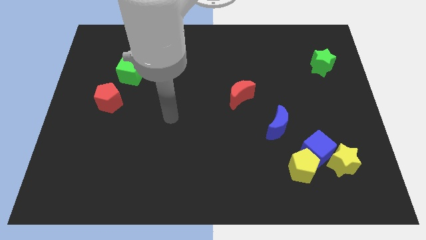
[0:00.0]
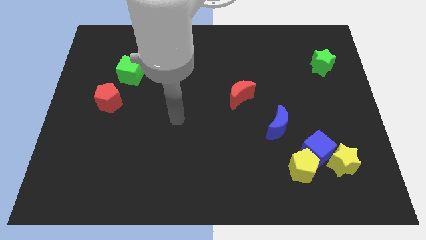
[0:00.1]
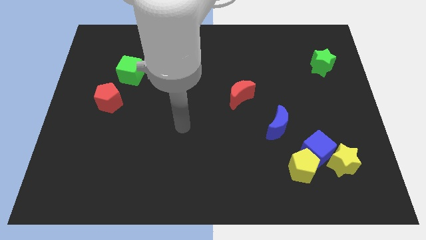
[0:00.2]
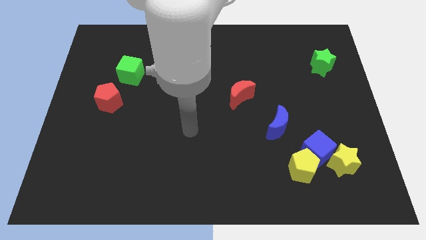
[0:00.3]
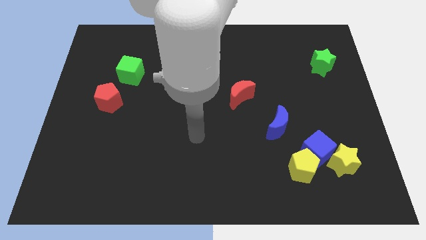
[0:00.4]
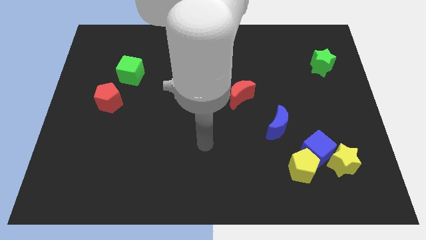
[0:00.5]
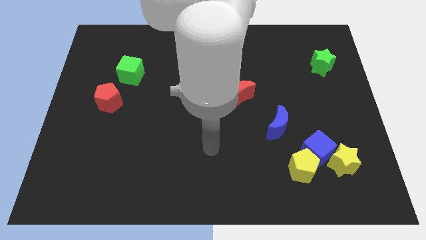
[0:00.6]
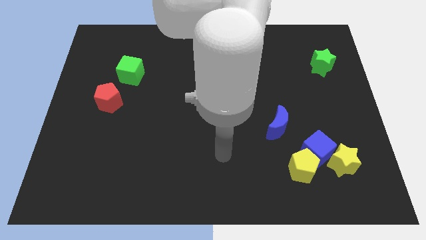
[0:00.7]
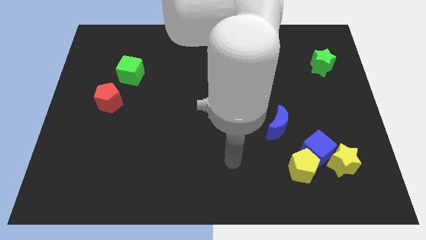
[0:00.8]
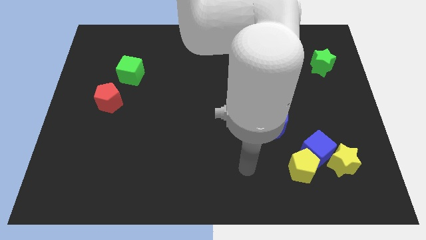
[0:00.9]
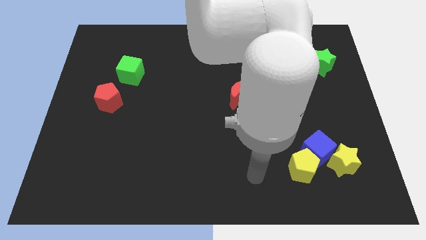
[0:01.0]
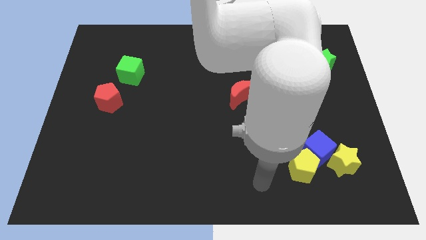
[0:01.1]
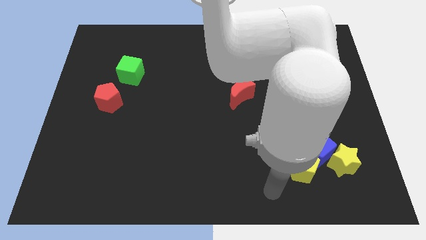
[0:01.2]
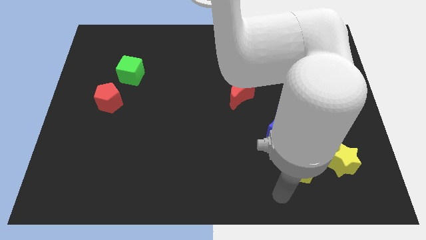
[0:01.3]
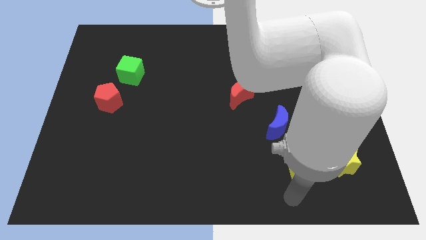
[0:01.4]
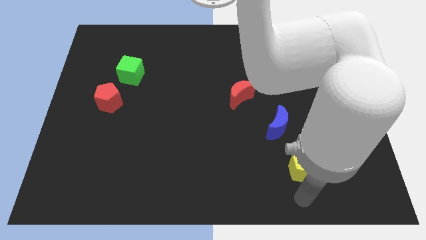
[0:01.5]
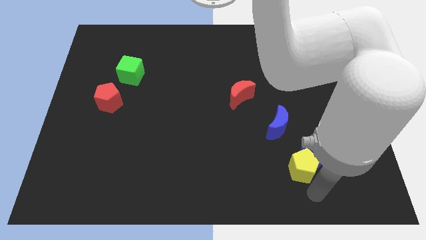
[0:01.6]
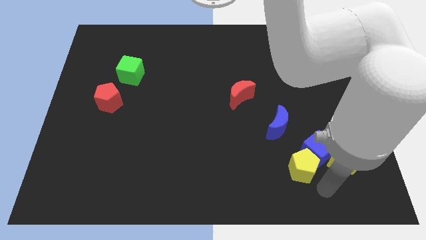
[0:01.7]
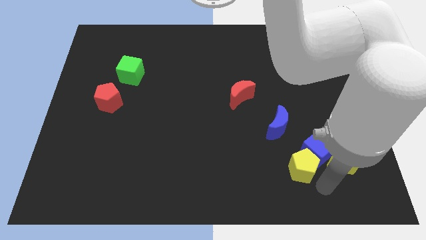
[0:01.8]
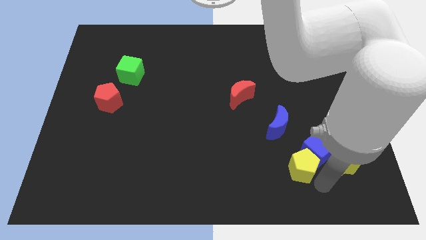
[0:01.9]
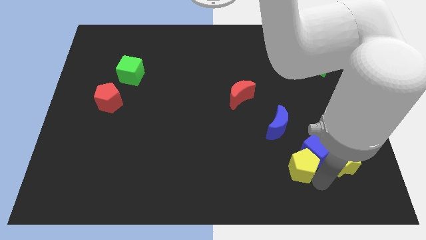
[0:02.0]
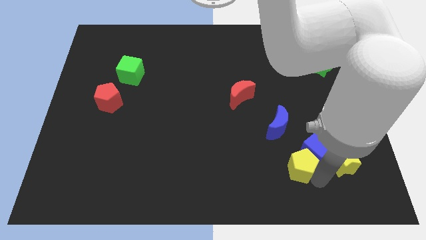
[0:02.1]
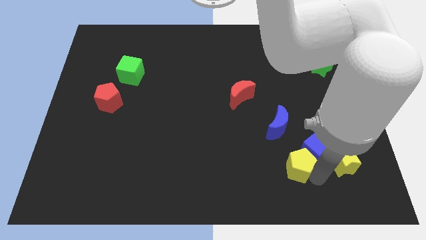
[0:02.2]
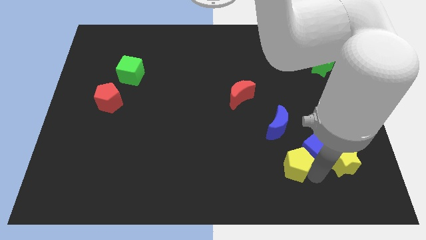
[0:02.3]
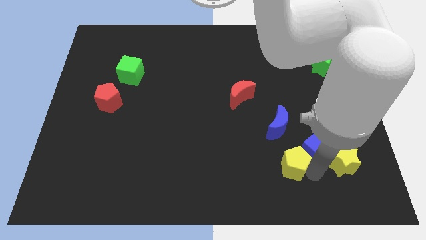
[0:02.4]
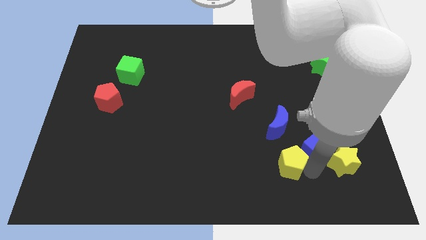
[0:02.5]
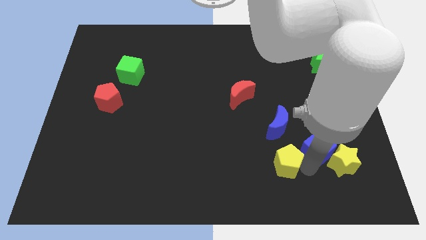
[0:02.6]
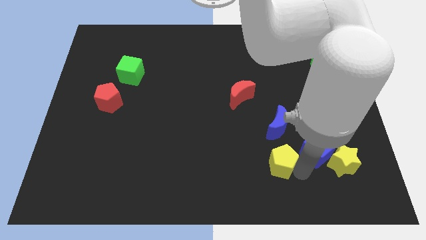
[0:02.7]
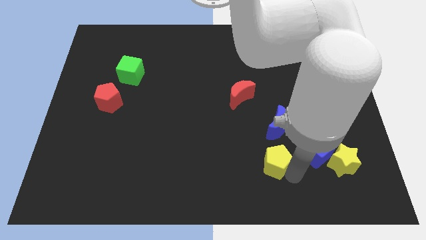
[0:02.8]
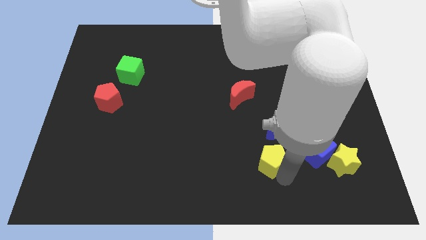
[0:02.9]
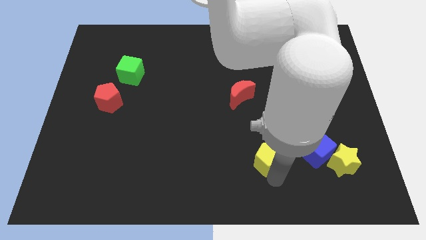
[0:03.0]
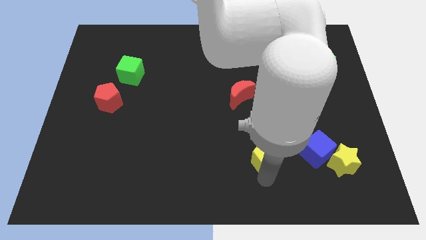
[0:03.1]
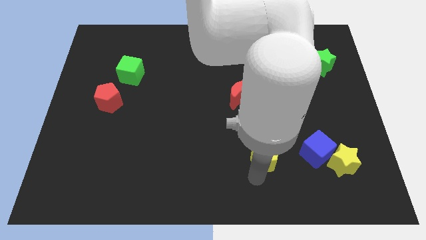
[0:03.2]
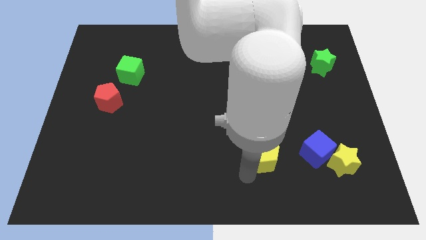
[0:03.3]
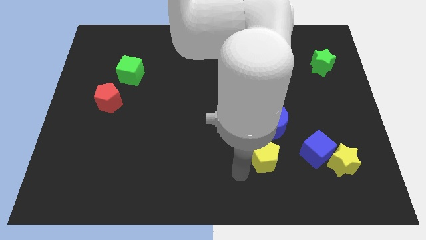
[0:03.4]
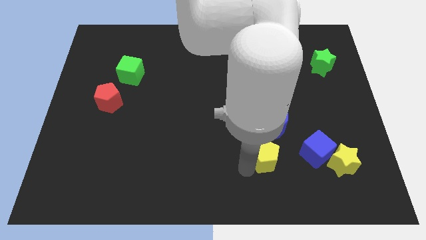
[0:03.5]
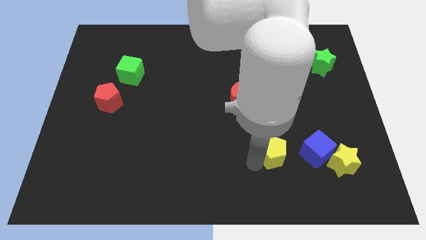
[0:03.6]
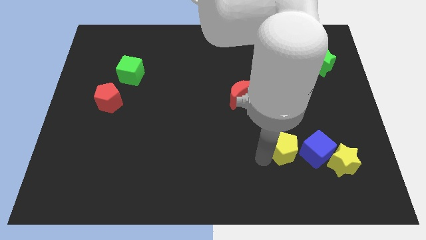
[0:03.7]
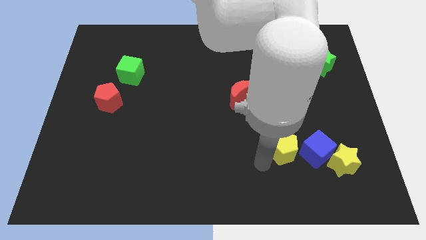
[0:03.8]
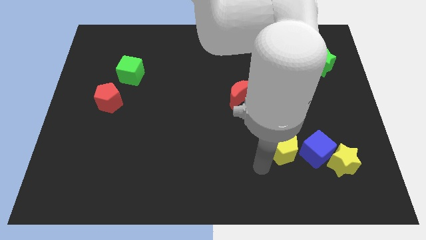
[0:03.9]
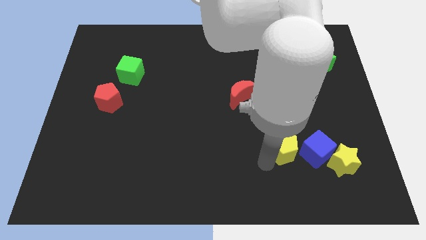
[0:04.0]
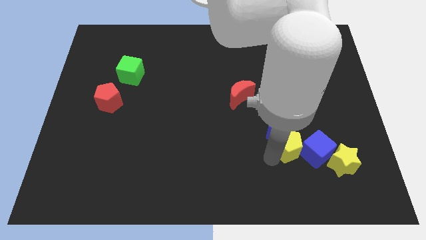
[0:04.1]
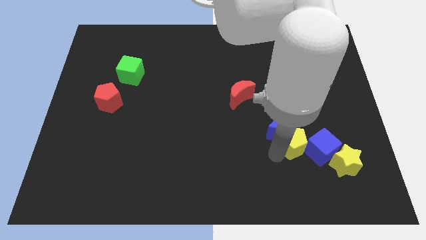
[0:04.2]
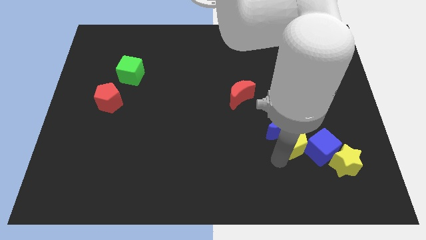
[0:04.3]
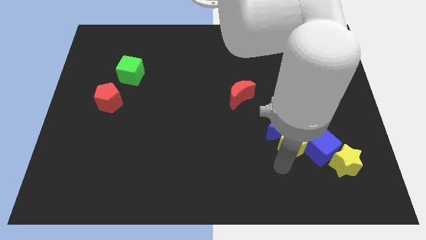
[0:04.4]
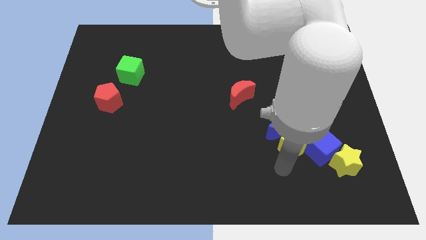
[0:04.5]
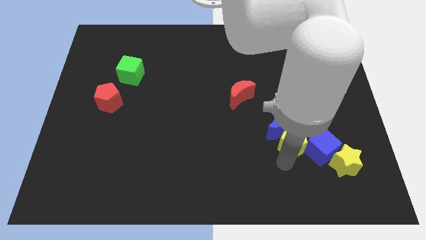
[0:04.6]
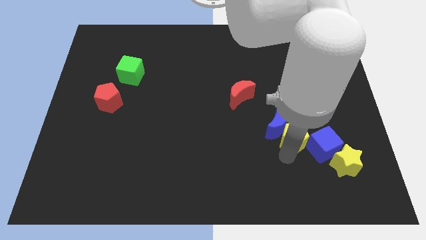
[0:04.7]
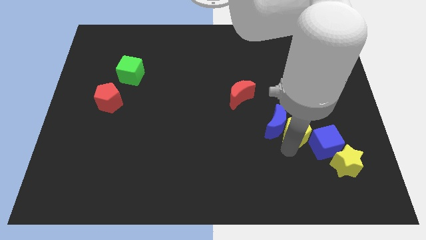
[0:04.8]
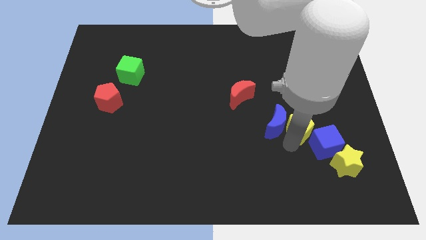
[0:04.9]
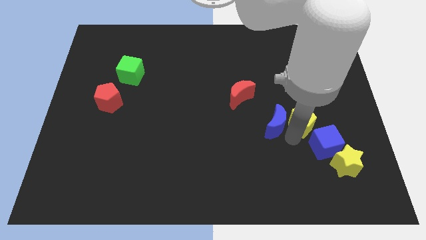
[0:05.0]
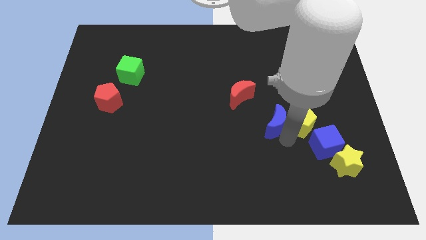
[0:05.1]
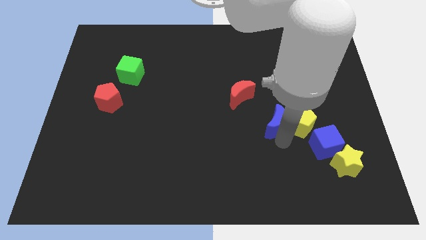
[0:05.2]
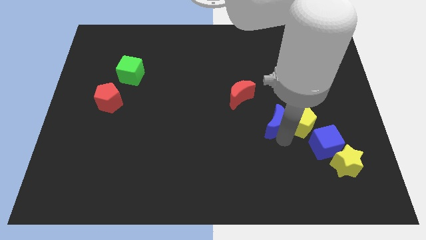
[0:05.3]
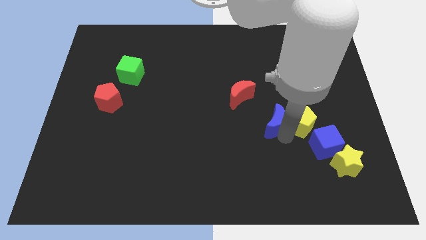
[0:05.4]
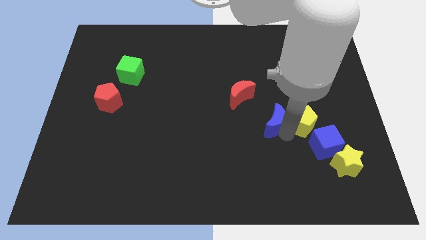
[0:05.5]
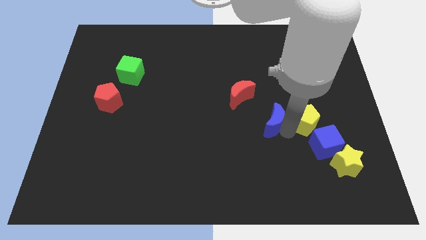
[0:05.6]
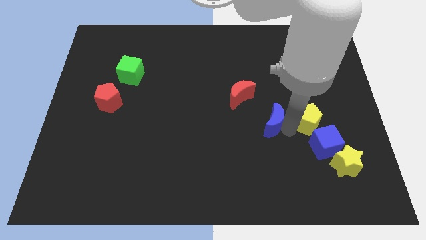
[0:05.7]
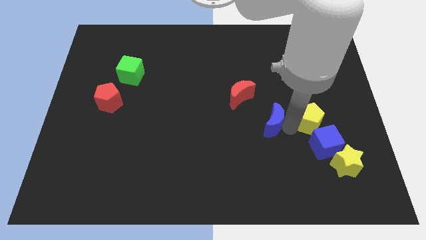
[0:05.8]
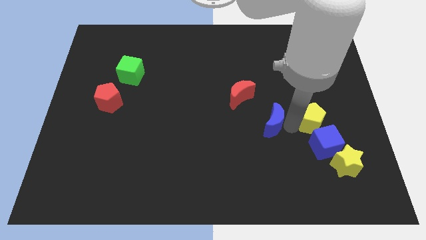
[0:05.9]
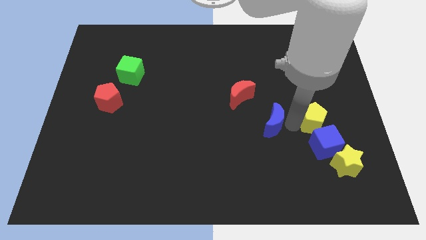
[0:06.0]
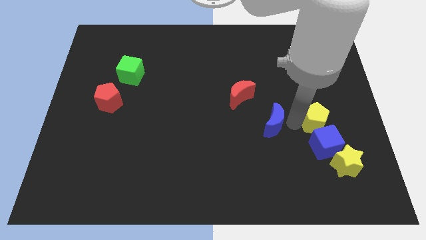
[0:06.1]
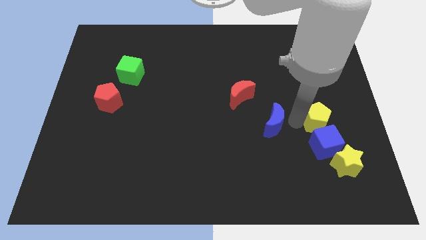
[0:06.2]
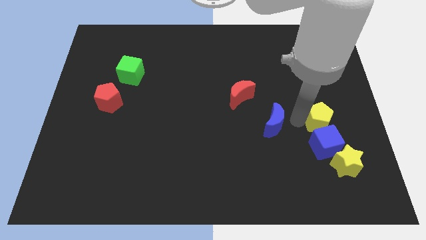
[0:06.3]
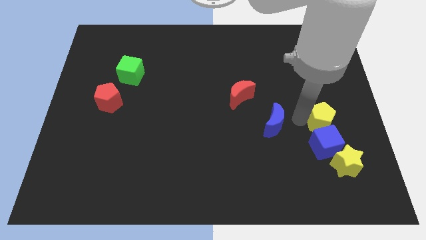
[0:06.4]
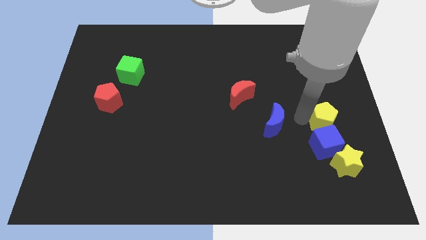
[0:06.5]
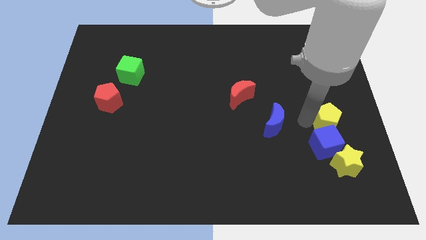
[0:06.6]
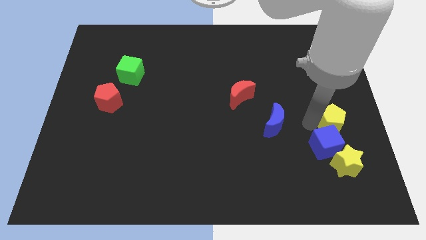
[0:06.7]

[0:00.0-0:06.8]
move the yellow pentagon to the right side

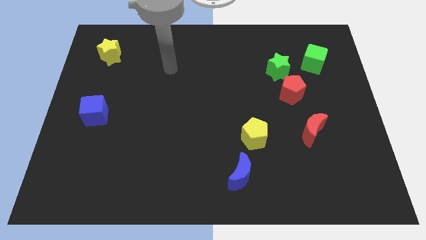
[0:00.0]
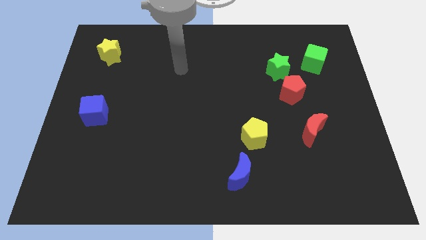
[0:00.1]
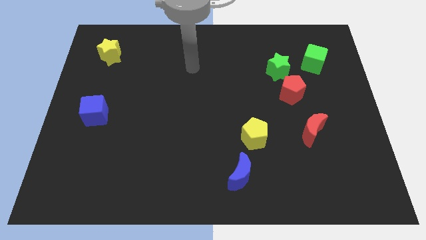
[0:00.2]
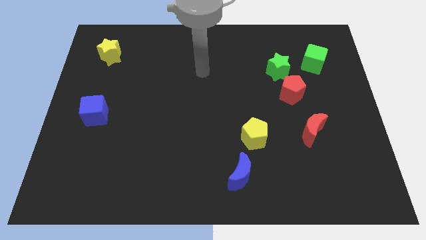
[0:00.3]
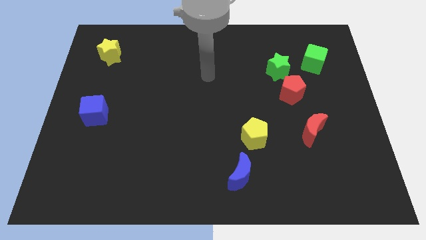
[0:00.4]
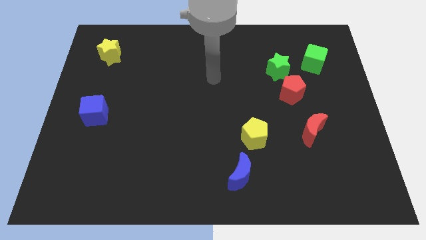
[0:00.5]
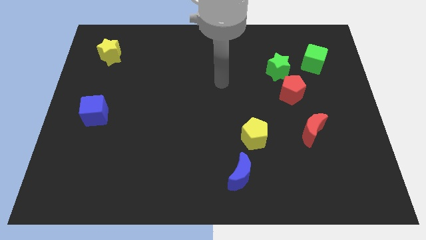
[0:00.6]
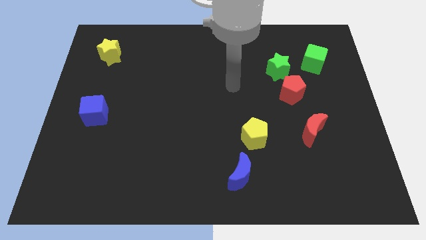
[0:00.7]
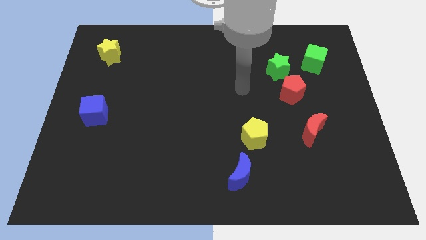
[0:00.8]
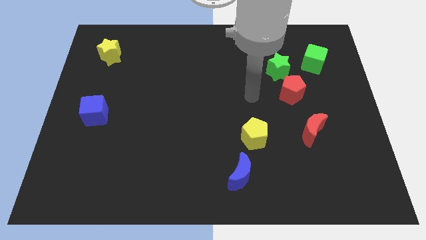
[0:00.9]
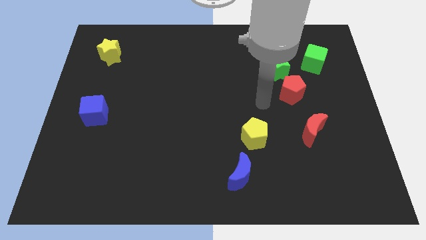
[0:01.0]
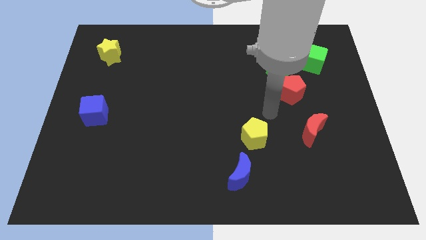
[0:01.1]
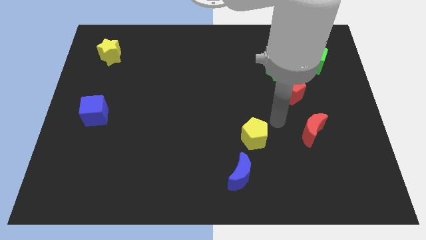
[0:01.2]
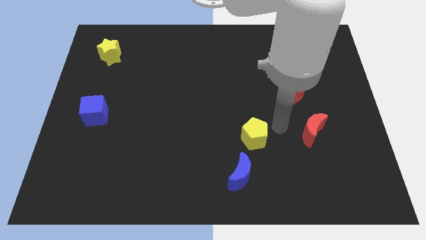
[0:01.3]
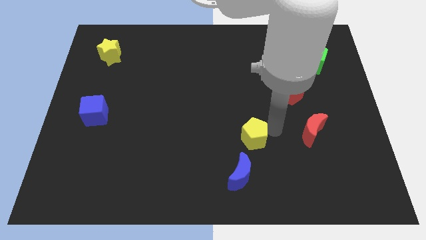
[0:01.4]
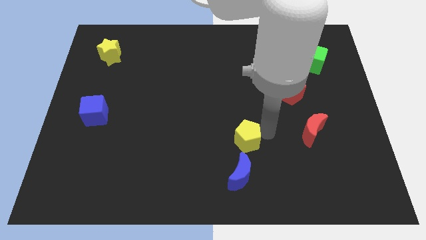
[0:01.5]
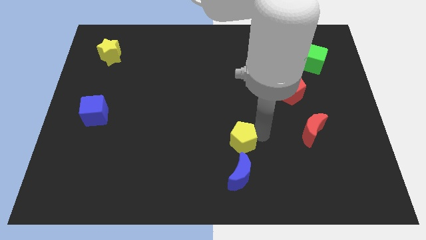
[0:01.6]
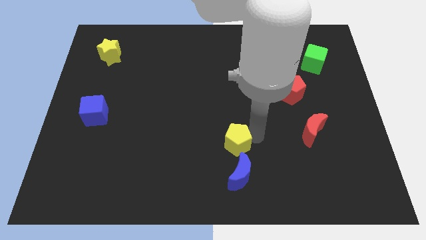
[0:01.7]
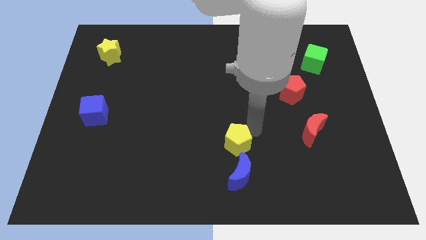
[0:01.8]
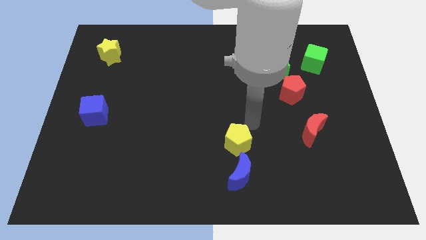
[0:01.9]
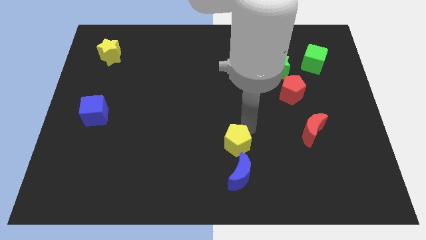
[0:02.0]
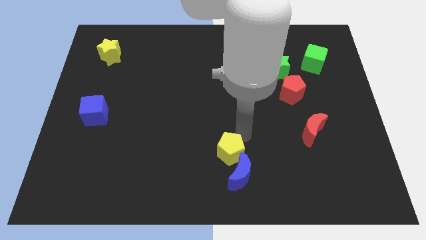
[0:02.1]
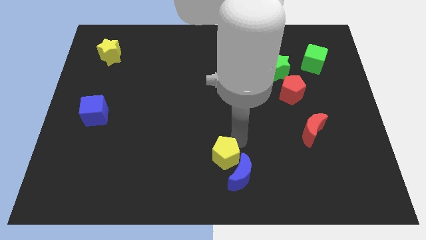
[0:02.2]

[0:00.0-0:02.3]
slide the yellow pentagon to the bottom
